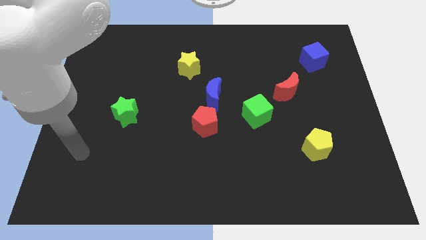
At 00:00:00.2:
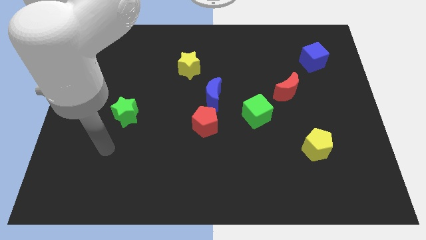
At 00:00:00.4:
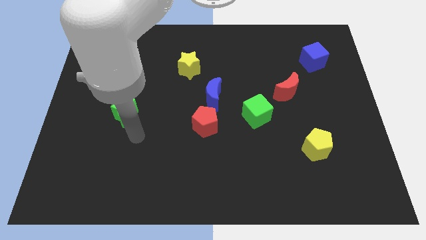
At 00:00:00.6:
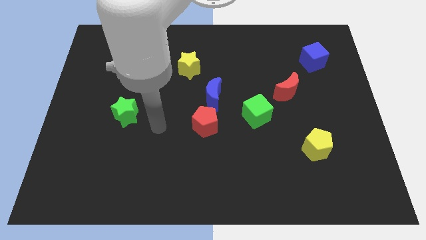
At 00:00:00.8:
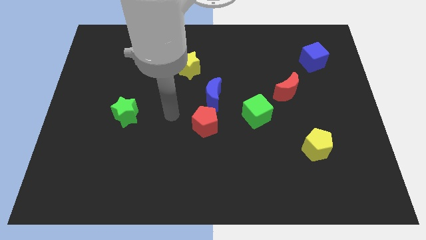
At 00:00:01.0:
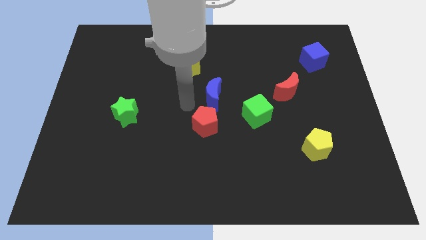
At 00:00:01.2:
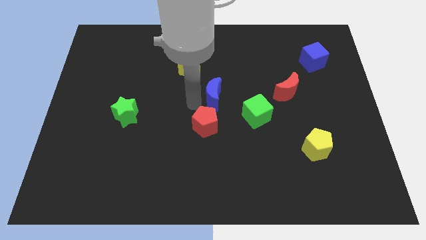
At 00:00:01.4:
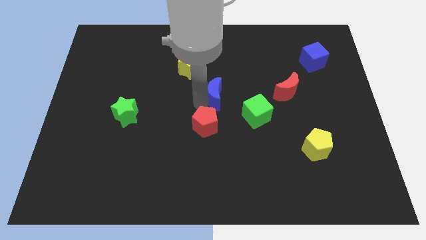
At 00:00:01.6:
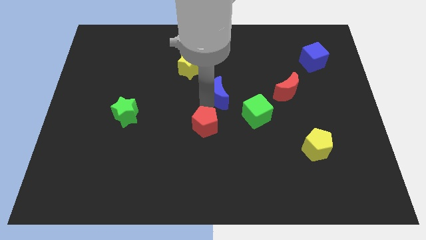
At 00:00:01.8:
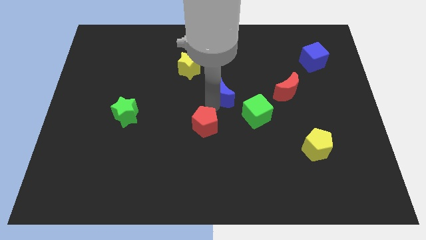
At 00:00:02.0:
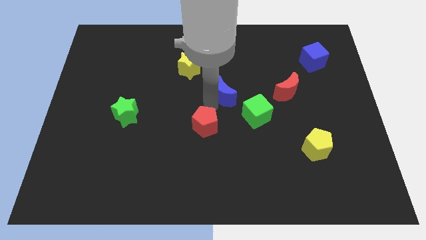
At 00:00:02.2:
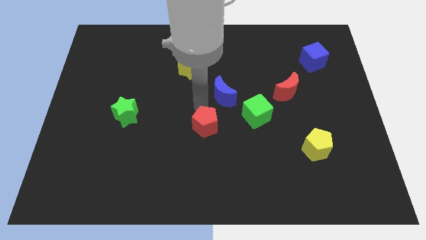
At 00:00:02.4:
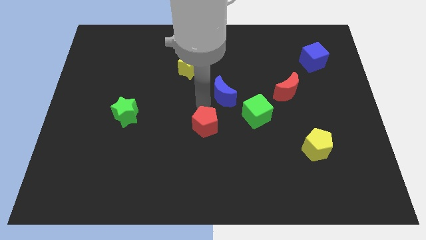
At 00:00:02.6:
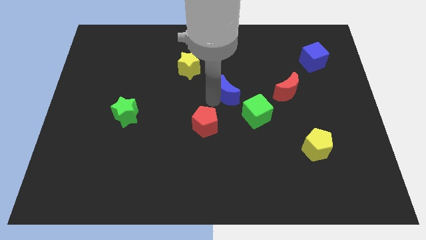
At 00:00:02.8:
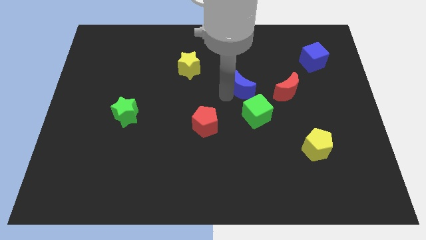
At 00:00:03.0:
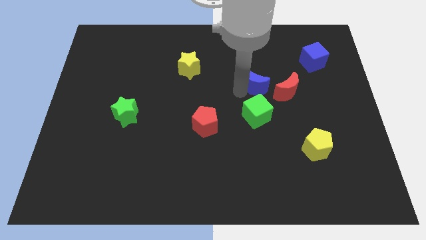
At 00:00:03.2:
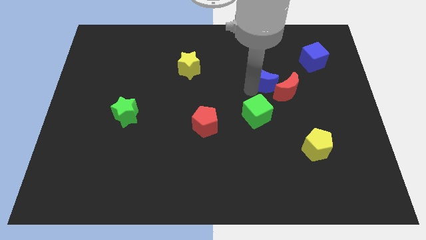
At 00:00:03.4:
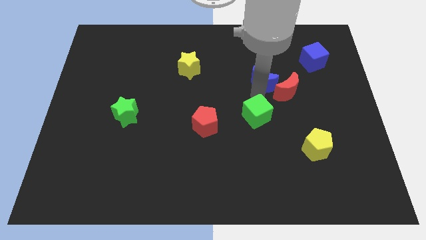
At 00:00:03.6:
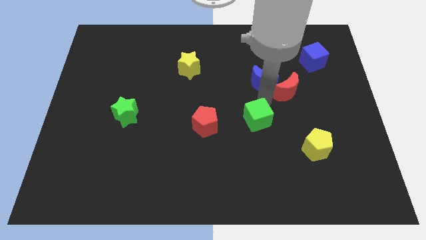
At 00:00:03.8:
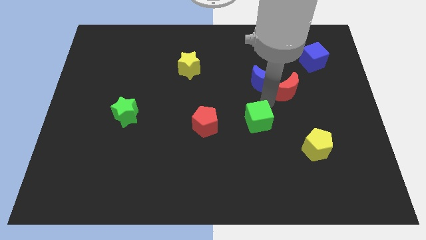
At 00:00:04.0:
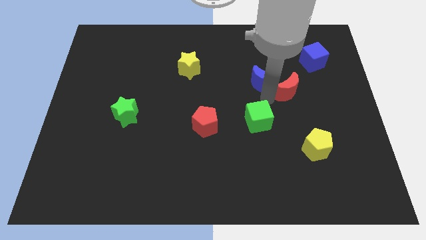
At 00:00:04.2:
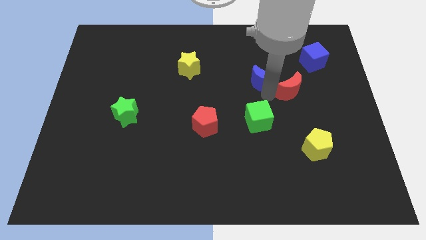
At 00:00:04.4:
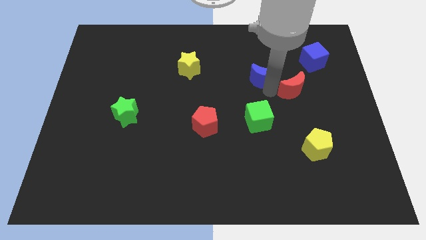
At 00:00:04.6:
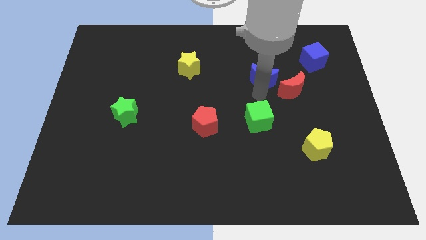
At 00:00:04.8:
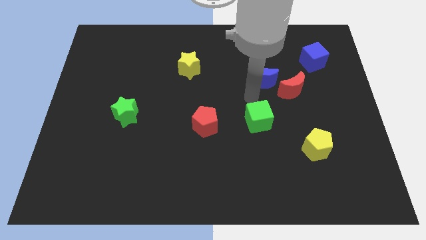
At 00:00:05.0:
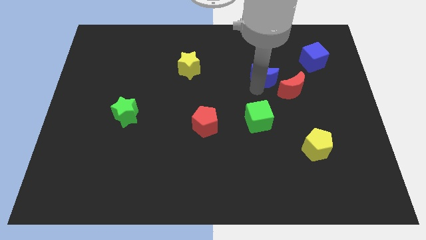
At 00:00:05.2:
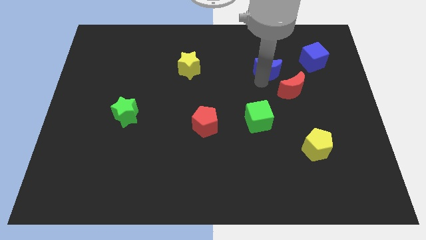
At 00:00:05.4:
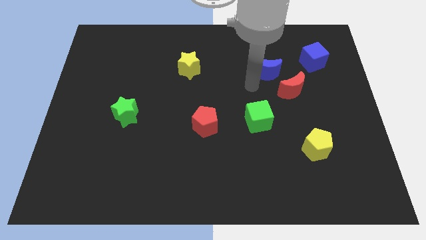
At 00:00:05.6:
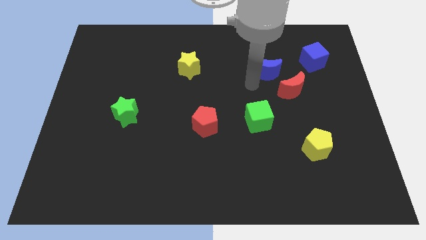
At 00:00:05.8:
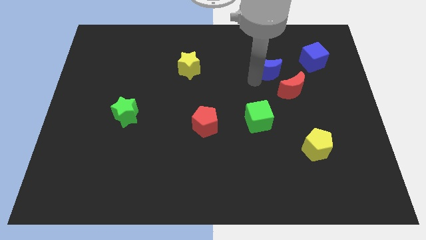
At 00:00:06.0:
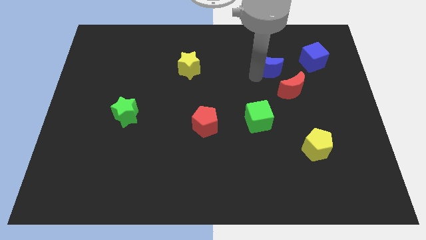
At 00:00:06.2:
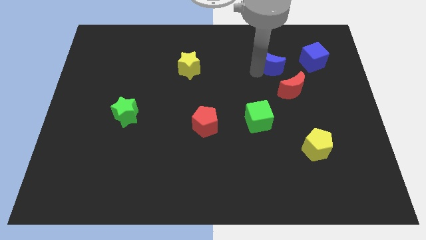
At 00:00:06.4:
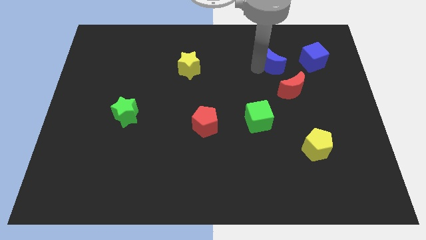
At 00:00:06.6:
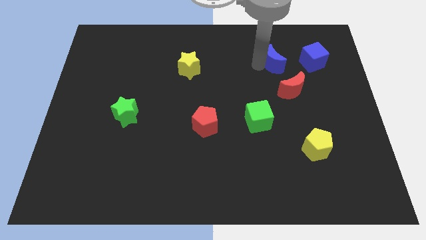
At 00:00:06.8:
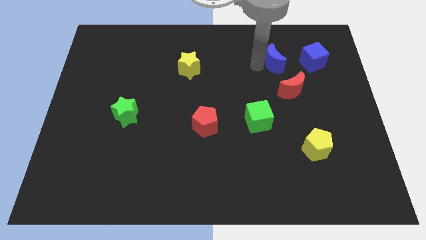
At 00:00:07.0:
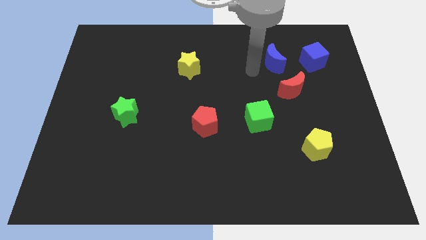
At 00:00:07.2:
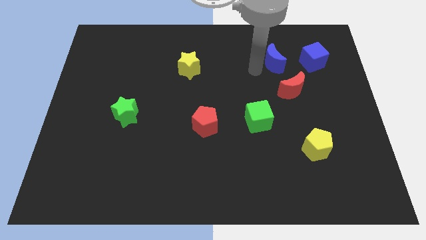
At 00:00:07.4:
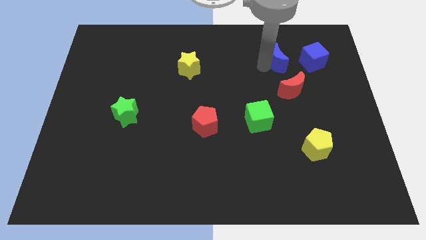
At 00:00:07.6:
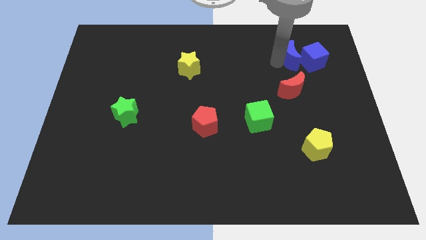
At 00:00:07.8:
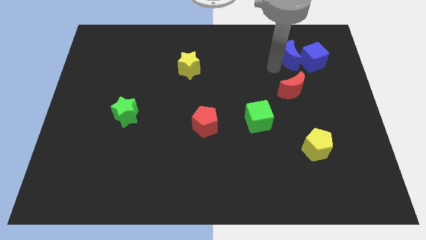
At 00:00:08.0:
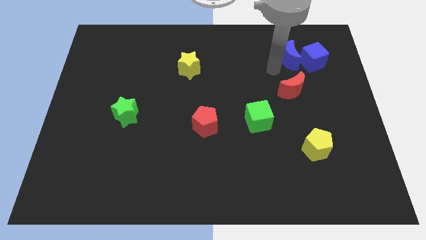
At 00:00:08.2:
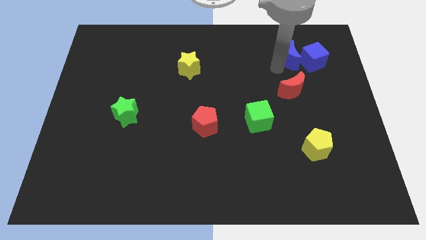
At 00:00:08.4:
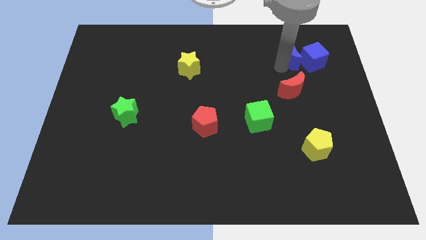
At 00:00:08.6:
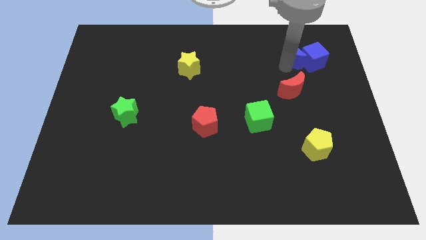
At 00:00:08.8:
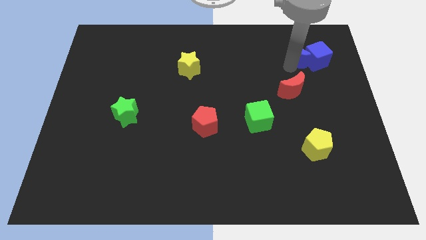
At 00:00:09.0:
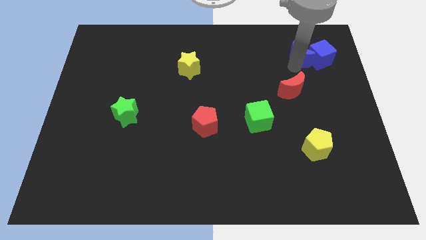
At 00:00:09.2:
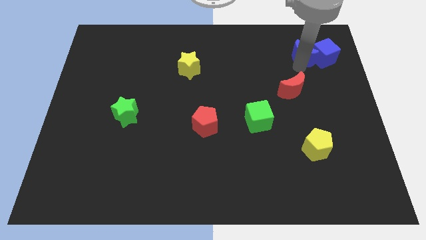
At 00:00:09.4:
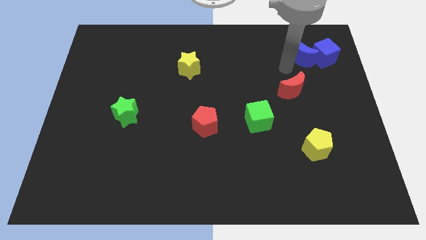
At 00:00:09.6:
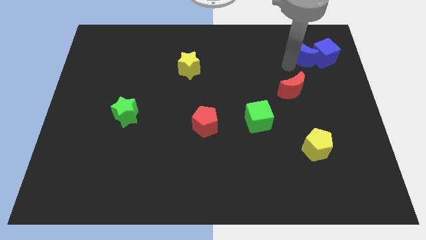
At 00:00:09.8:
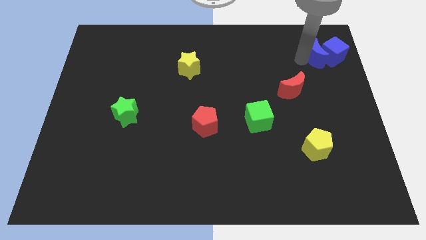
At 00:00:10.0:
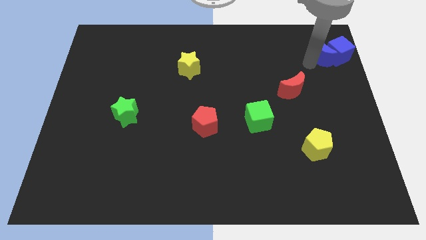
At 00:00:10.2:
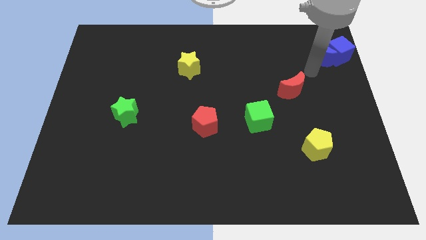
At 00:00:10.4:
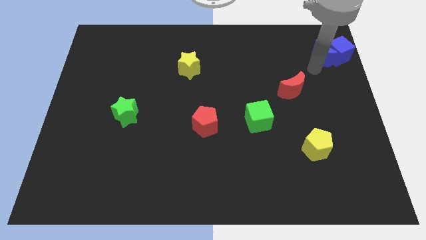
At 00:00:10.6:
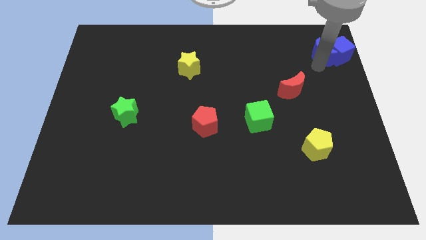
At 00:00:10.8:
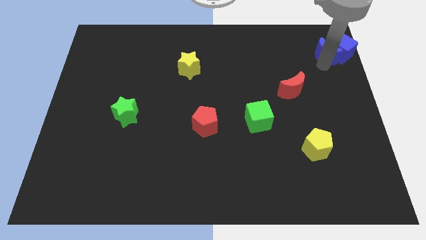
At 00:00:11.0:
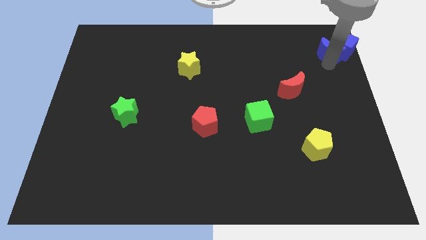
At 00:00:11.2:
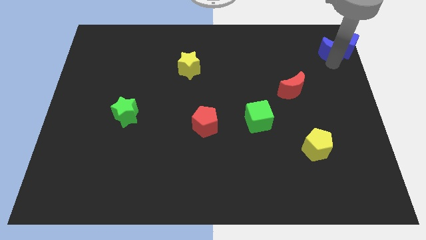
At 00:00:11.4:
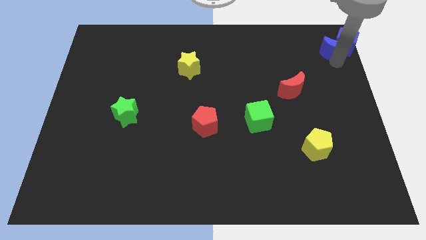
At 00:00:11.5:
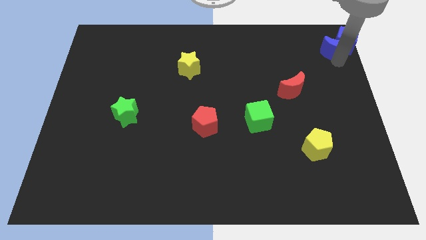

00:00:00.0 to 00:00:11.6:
slide the blue moon to the top right corner
